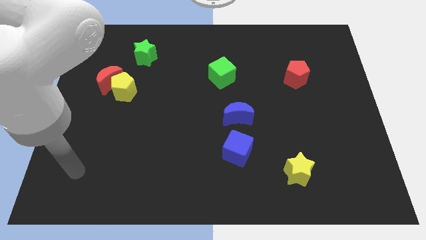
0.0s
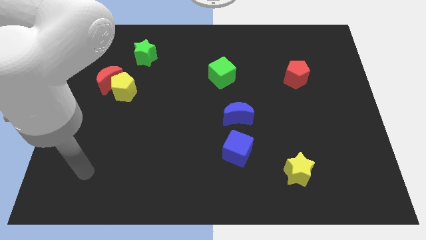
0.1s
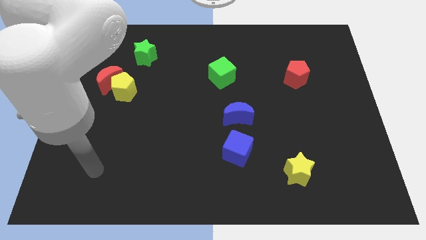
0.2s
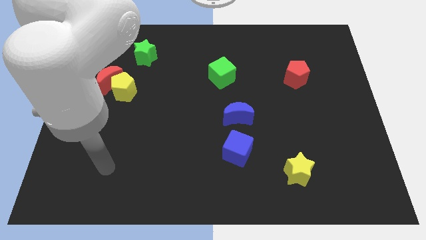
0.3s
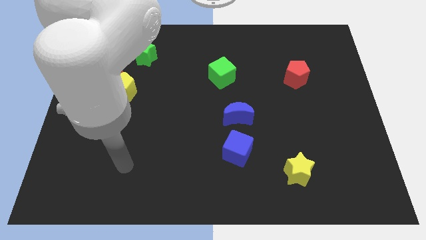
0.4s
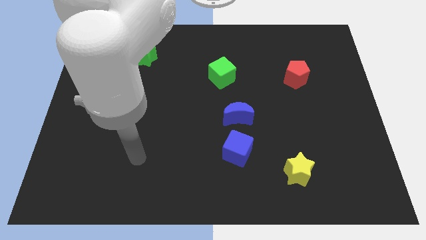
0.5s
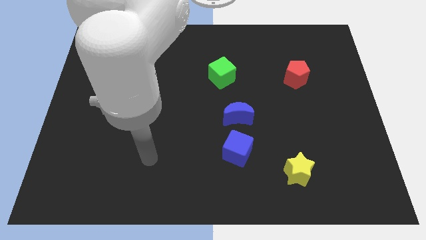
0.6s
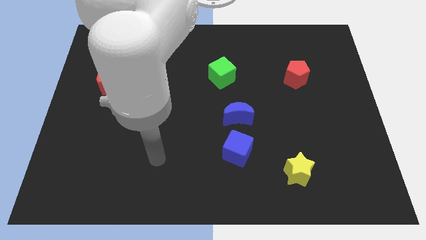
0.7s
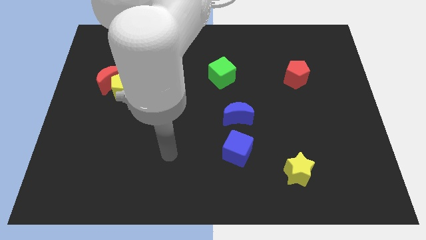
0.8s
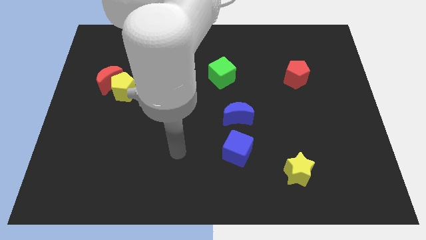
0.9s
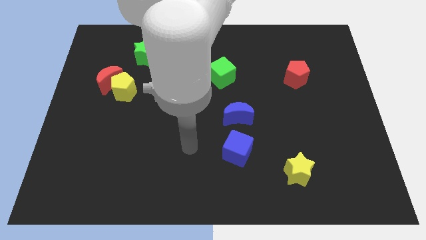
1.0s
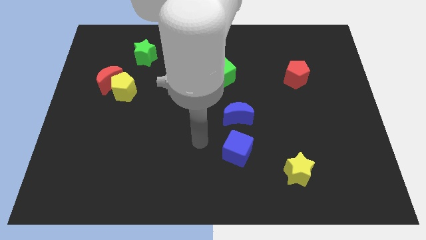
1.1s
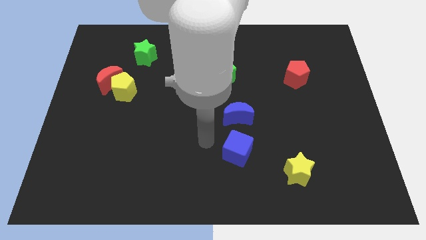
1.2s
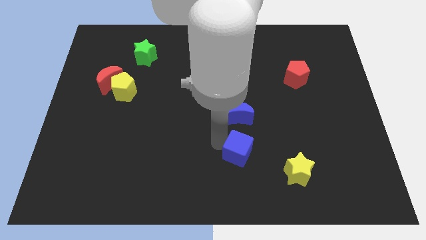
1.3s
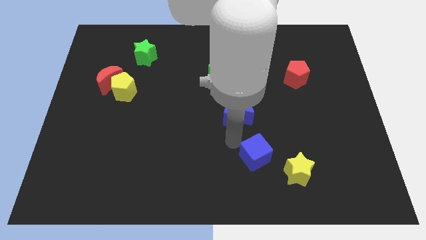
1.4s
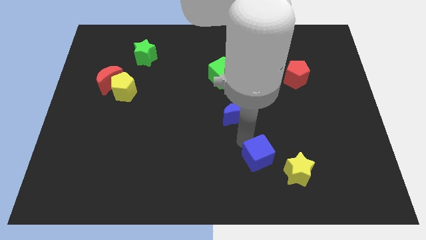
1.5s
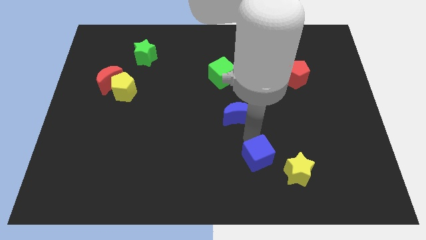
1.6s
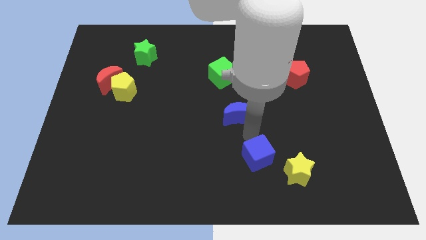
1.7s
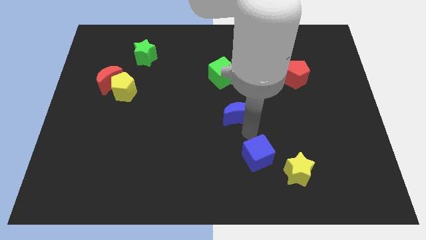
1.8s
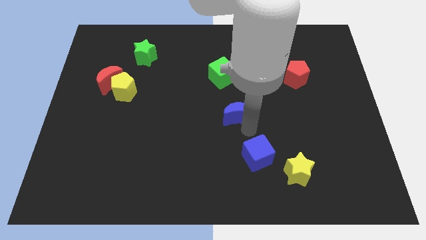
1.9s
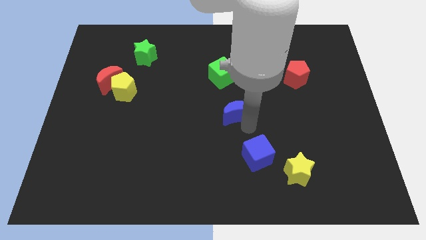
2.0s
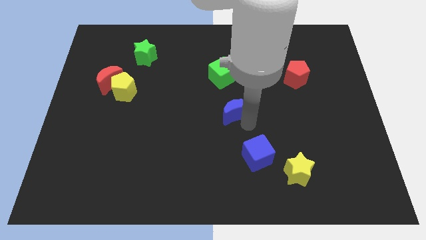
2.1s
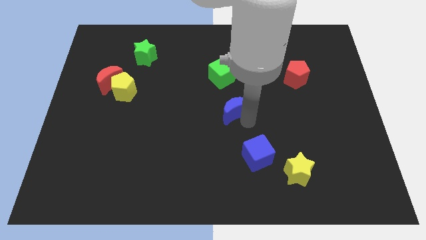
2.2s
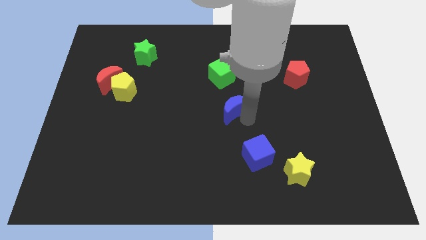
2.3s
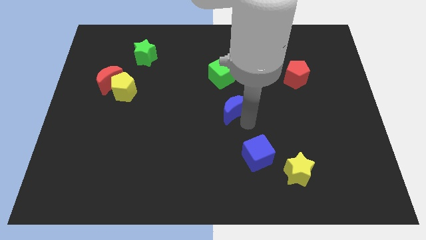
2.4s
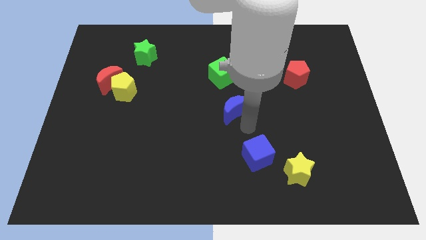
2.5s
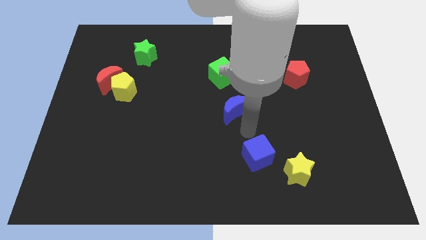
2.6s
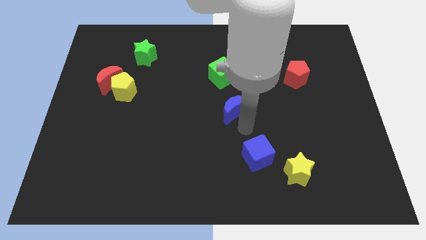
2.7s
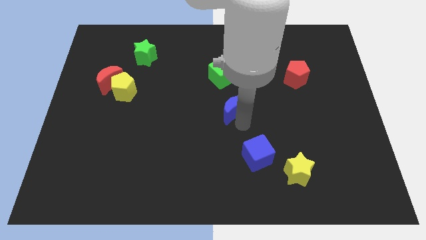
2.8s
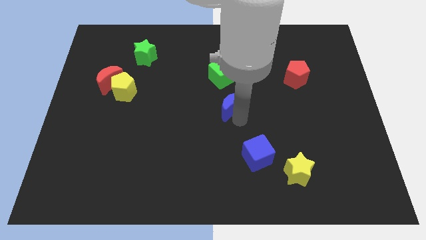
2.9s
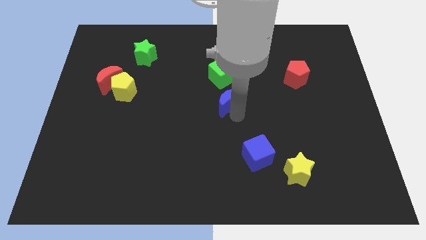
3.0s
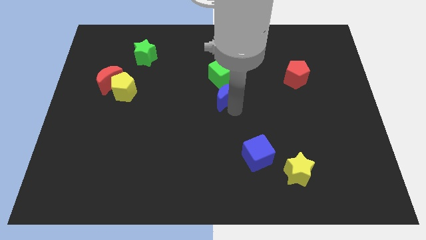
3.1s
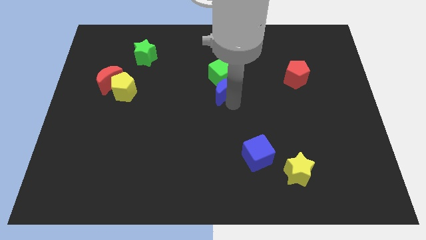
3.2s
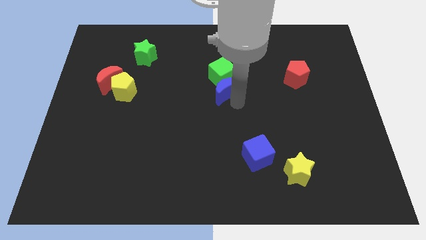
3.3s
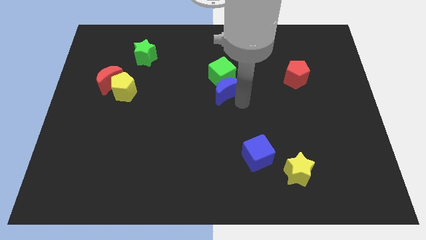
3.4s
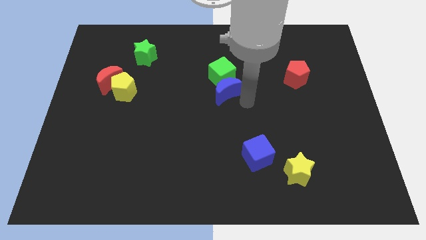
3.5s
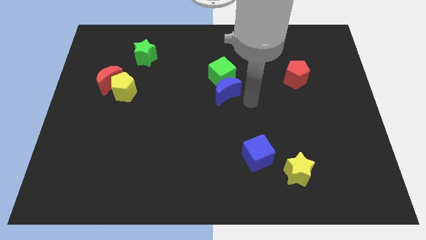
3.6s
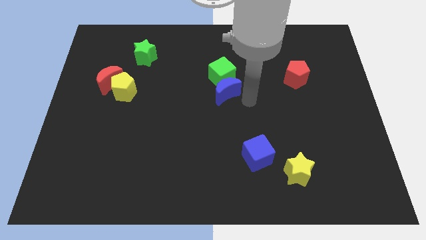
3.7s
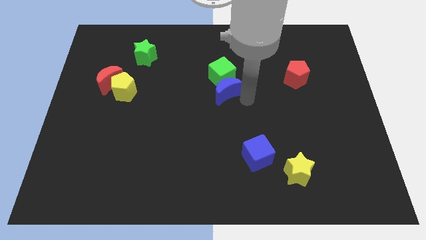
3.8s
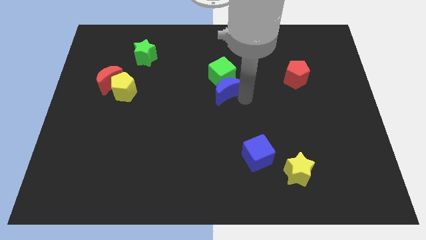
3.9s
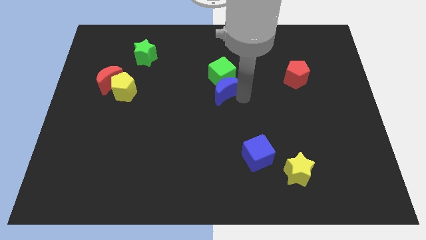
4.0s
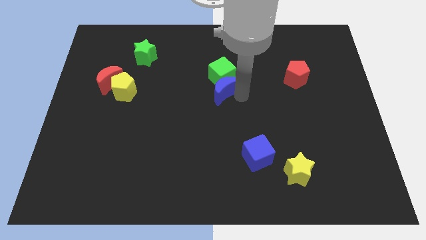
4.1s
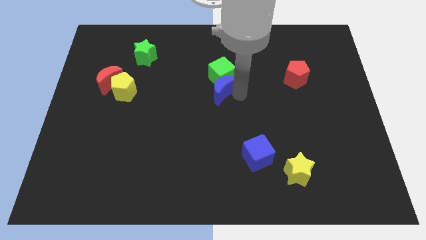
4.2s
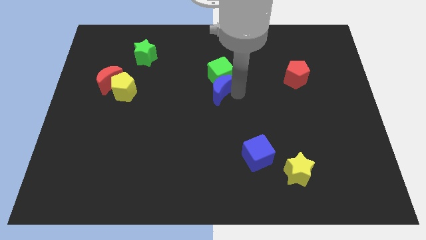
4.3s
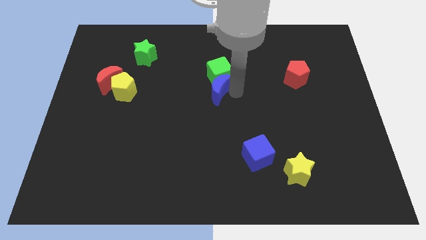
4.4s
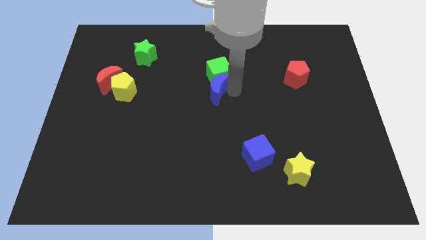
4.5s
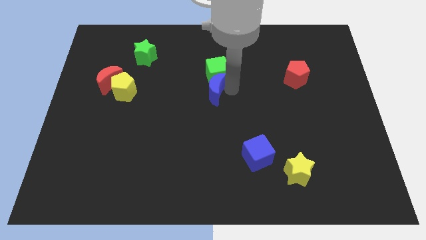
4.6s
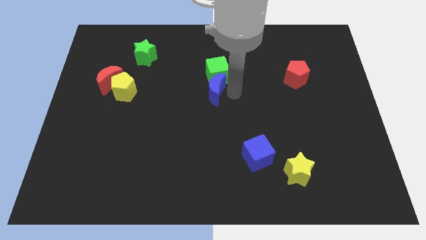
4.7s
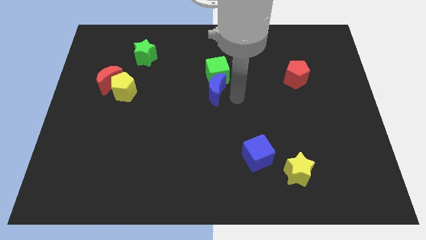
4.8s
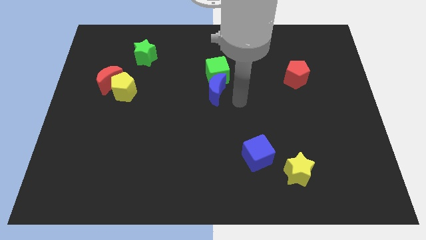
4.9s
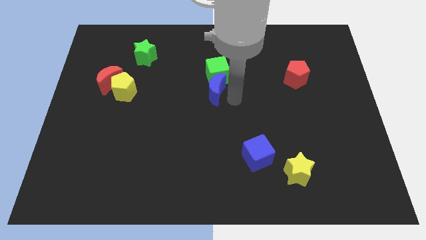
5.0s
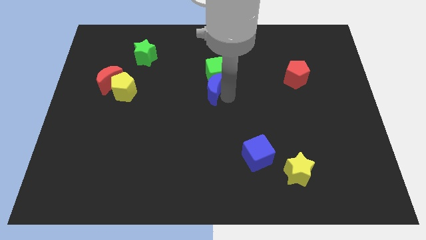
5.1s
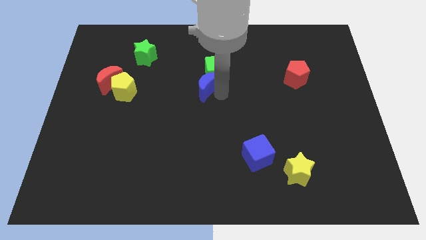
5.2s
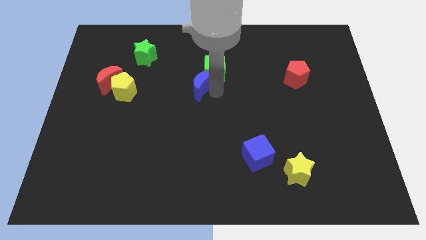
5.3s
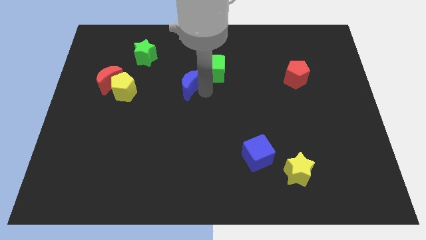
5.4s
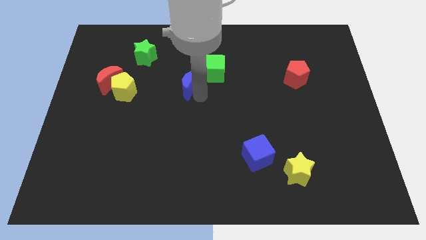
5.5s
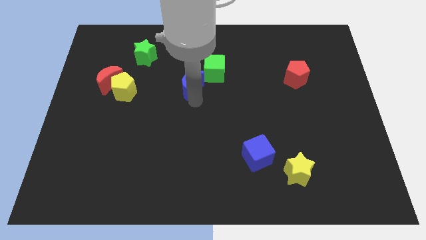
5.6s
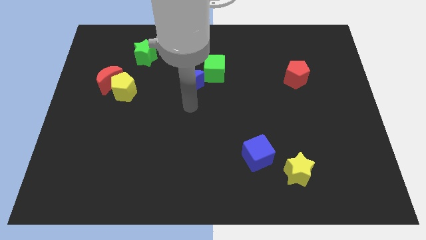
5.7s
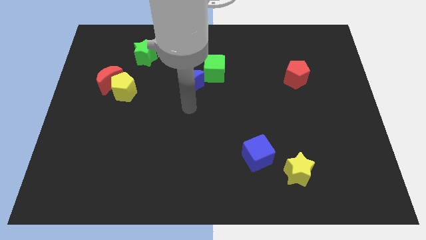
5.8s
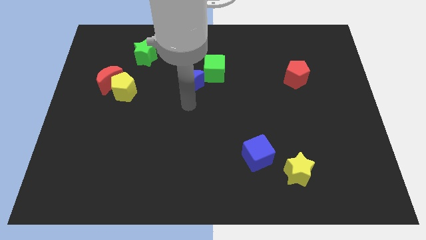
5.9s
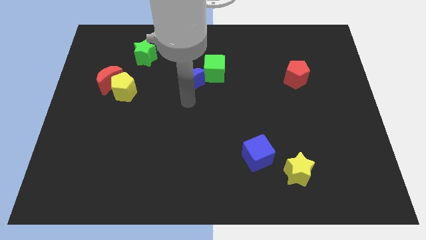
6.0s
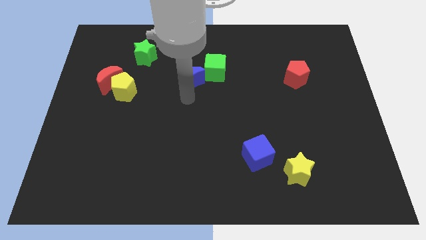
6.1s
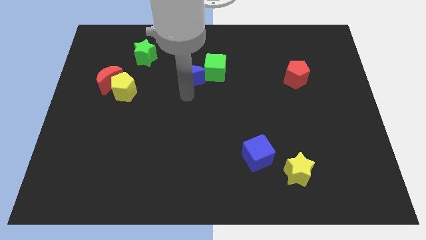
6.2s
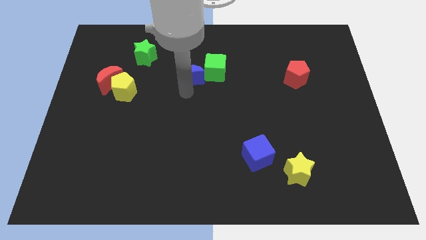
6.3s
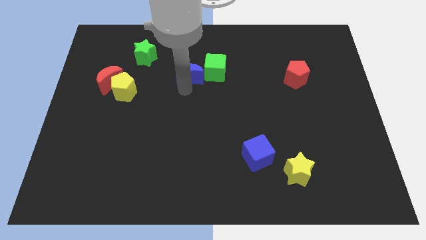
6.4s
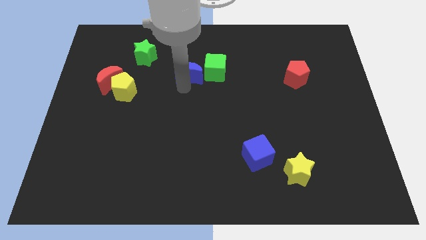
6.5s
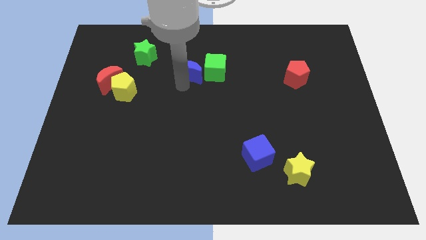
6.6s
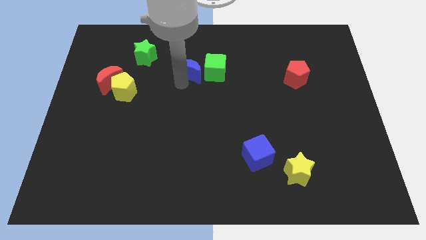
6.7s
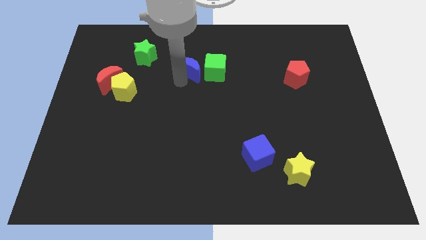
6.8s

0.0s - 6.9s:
slide the blue moon to the top left side of the green cube

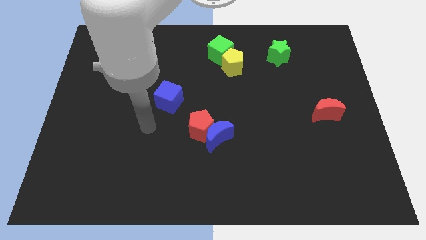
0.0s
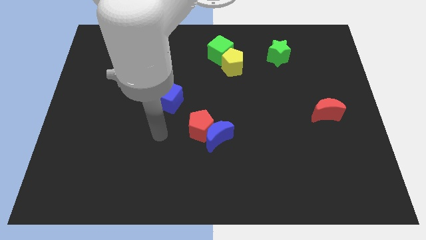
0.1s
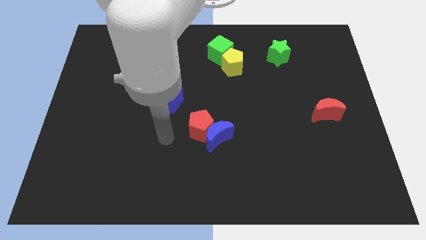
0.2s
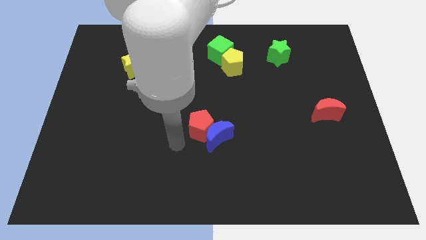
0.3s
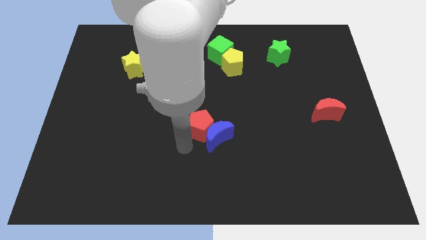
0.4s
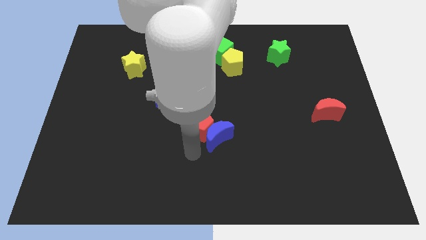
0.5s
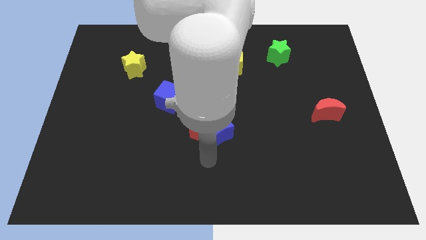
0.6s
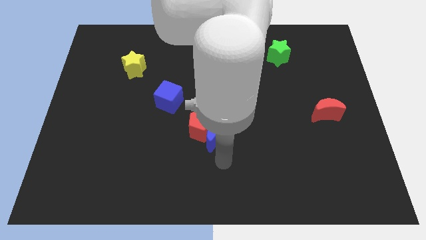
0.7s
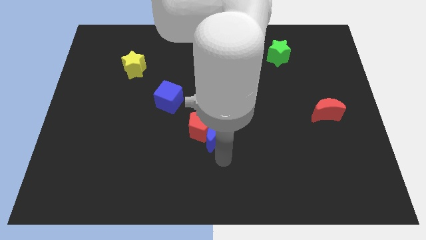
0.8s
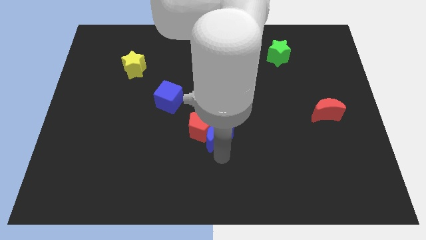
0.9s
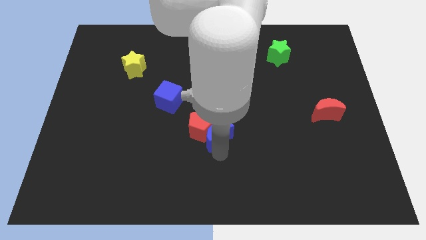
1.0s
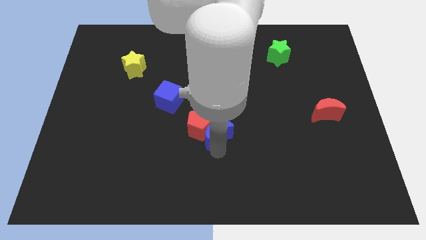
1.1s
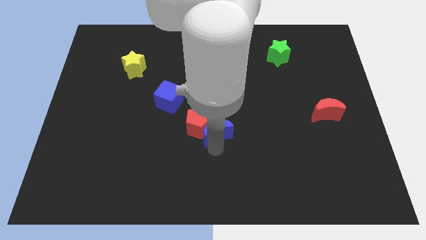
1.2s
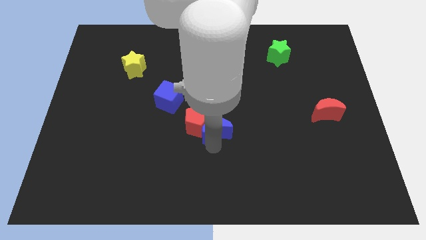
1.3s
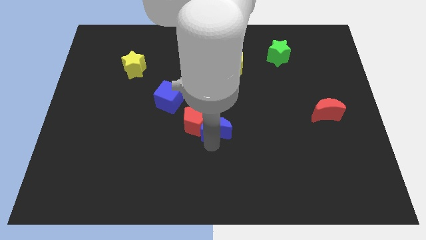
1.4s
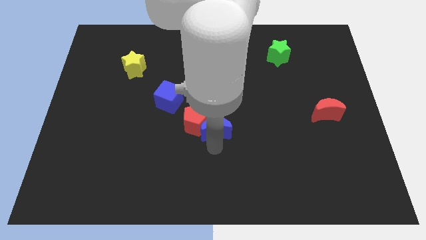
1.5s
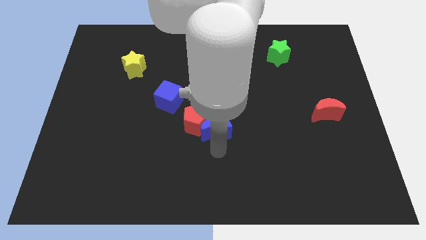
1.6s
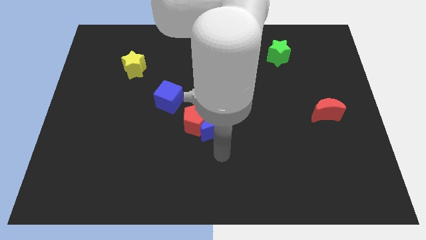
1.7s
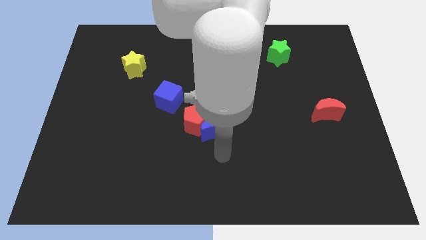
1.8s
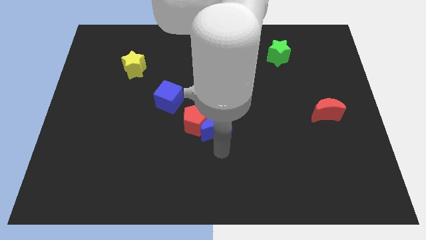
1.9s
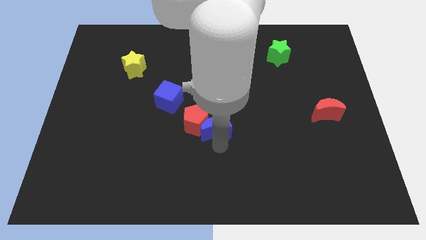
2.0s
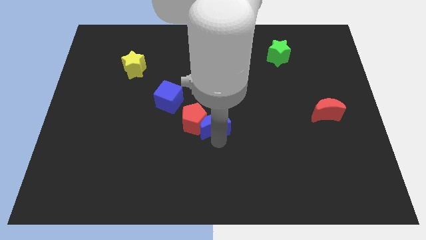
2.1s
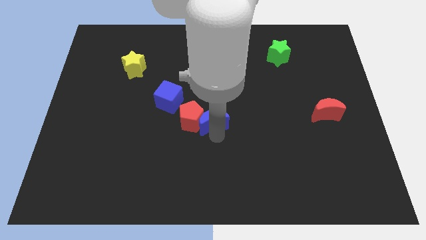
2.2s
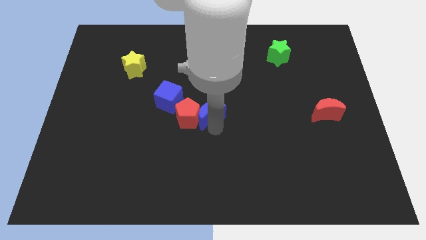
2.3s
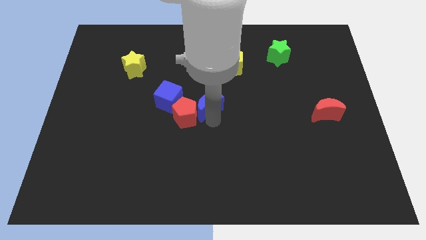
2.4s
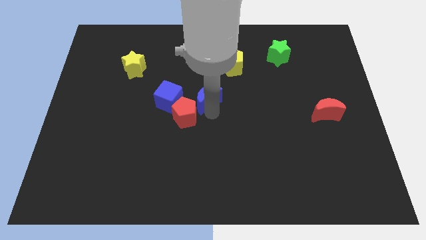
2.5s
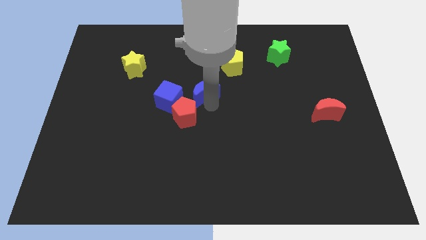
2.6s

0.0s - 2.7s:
put the blue moon above the red pentagon
